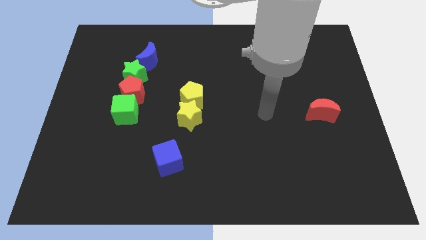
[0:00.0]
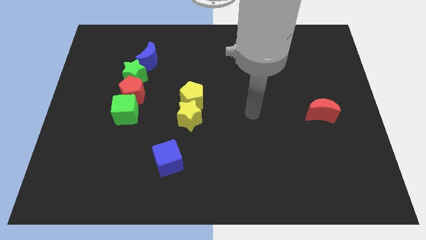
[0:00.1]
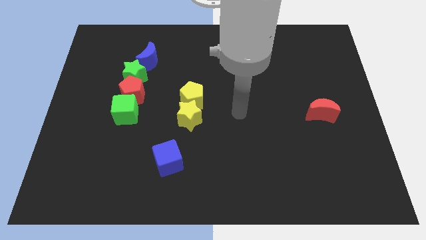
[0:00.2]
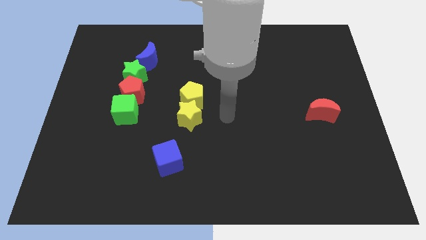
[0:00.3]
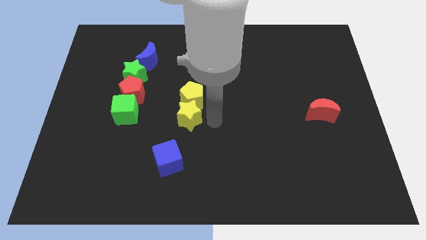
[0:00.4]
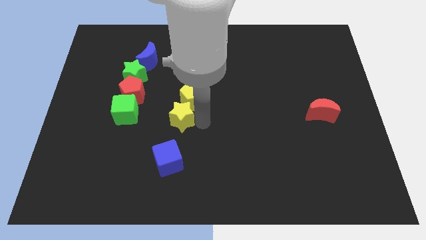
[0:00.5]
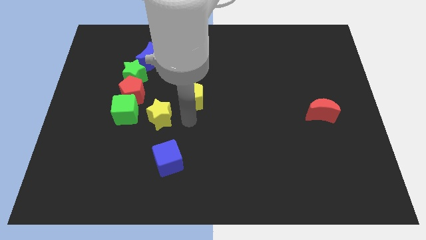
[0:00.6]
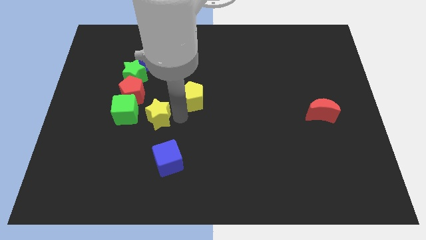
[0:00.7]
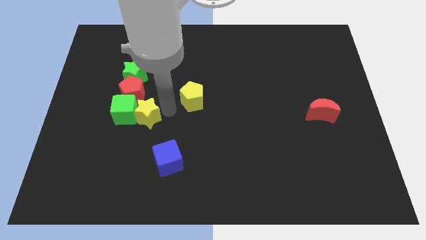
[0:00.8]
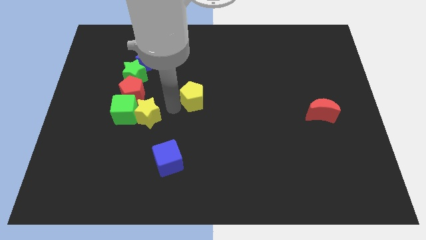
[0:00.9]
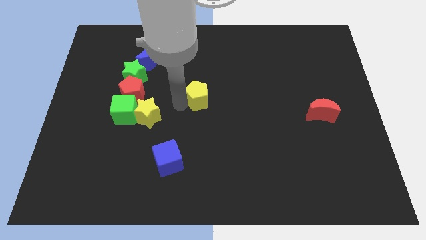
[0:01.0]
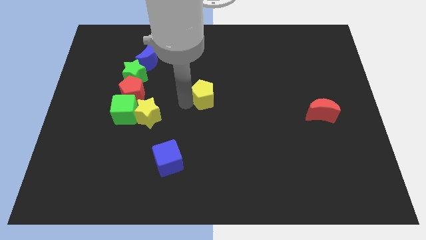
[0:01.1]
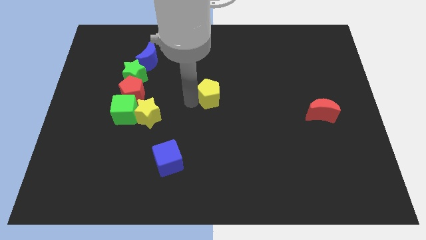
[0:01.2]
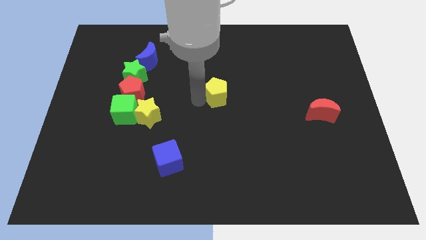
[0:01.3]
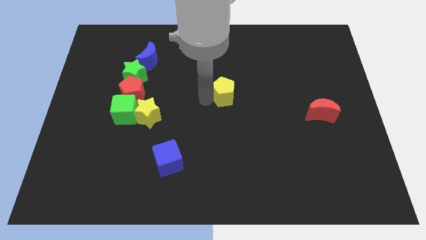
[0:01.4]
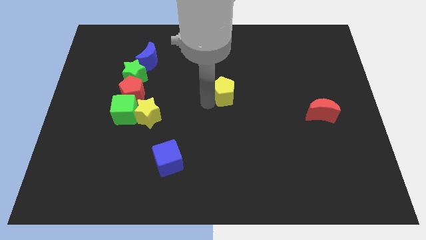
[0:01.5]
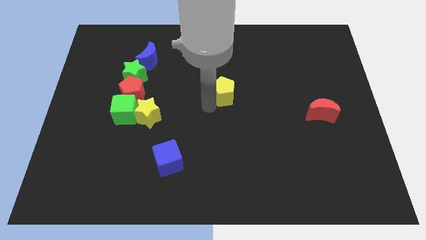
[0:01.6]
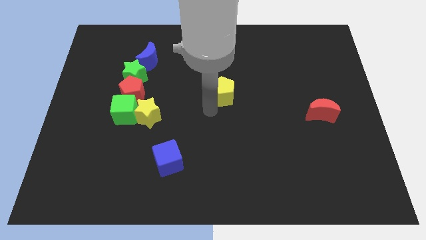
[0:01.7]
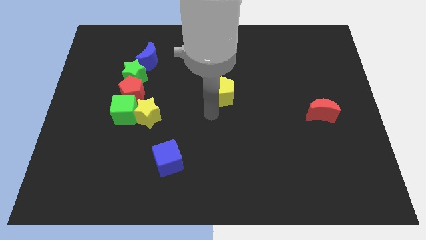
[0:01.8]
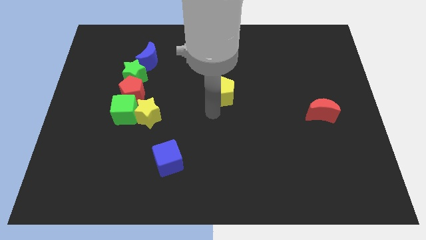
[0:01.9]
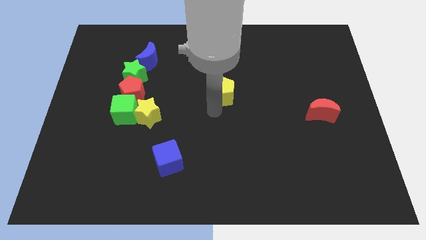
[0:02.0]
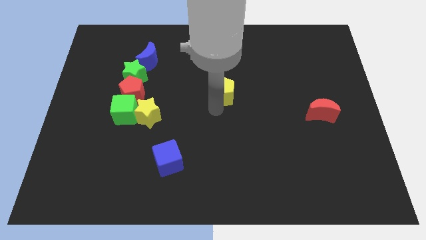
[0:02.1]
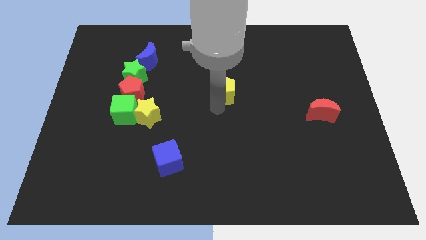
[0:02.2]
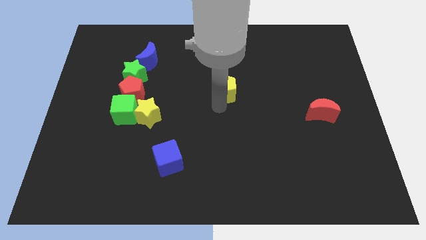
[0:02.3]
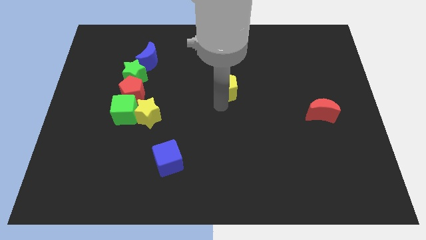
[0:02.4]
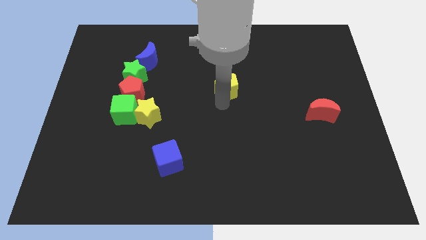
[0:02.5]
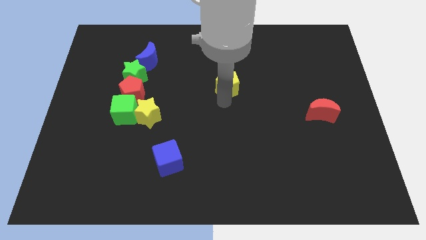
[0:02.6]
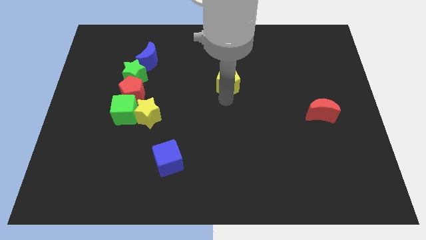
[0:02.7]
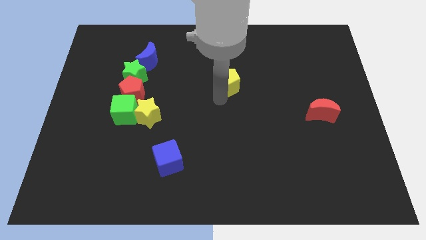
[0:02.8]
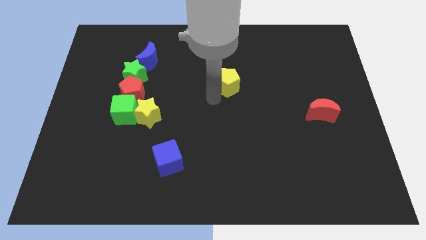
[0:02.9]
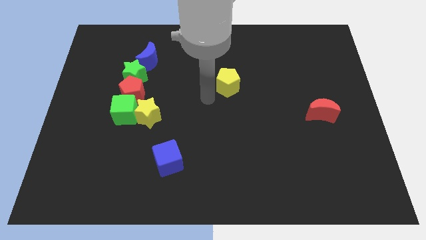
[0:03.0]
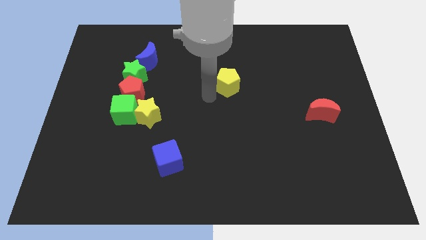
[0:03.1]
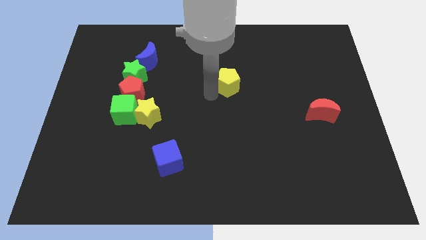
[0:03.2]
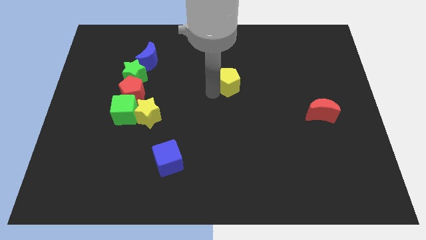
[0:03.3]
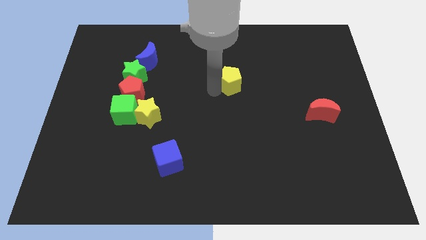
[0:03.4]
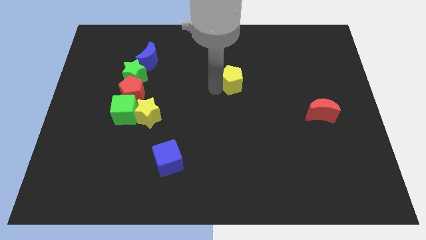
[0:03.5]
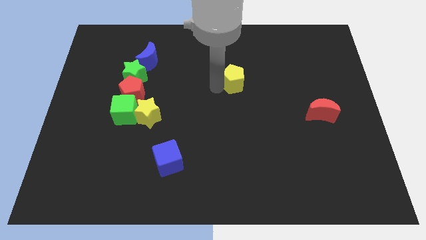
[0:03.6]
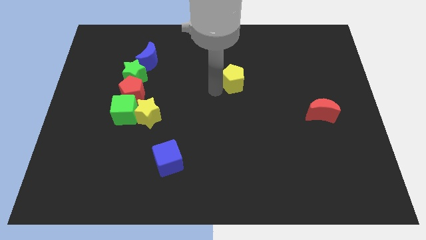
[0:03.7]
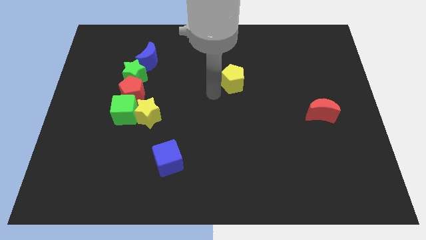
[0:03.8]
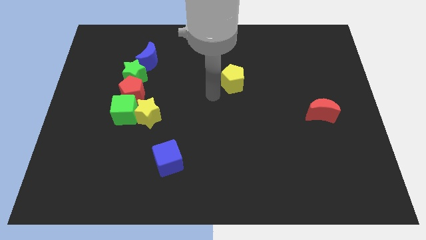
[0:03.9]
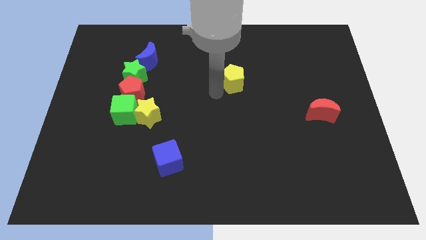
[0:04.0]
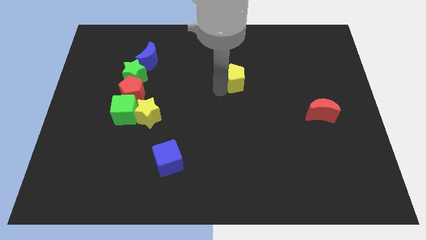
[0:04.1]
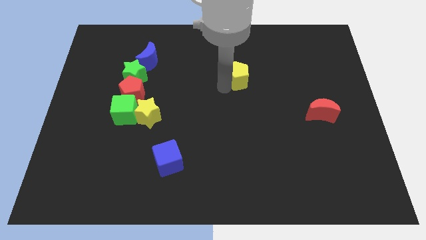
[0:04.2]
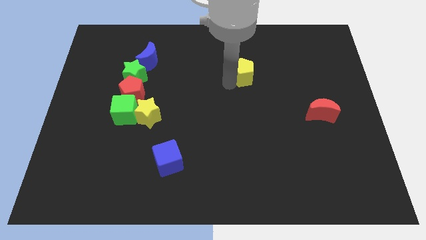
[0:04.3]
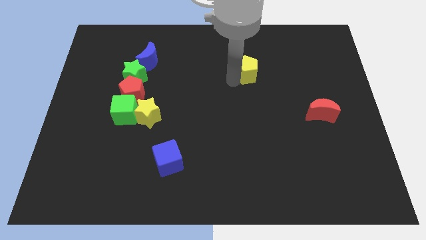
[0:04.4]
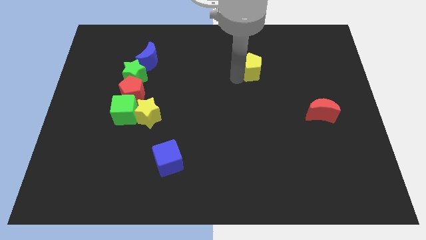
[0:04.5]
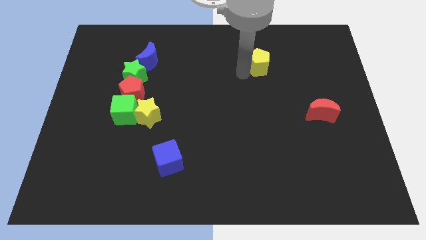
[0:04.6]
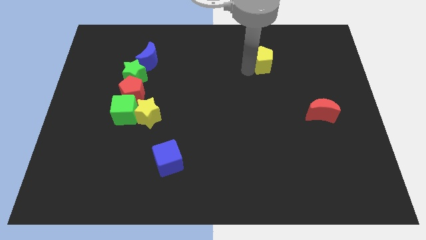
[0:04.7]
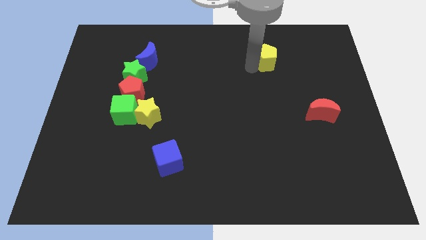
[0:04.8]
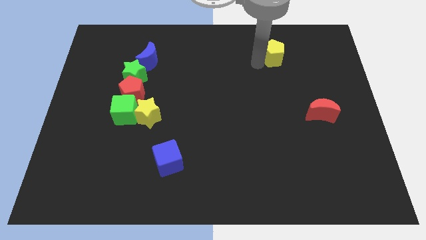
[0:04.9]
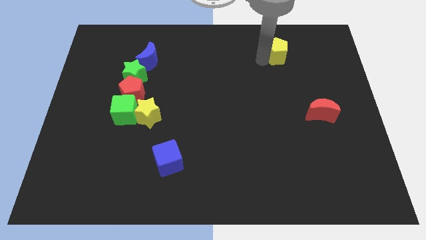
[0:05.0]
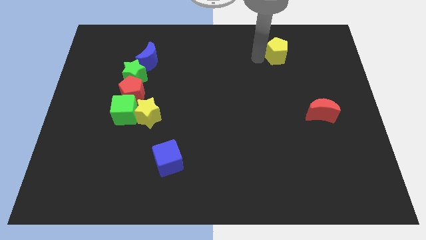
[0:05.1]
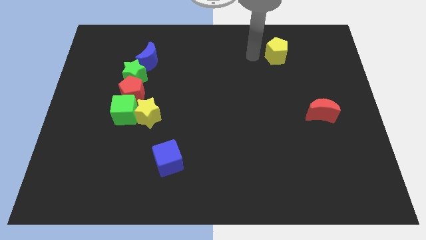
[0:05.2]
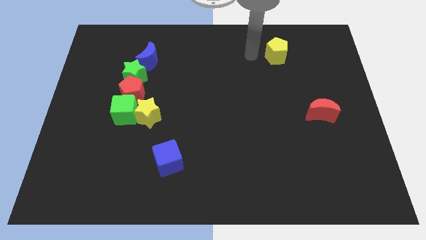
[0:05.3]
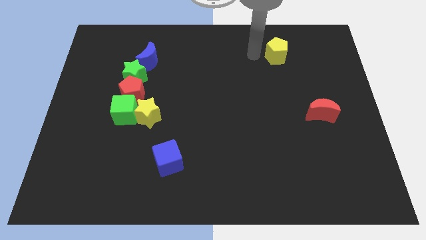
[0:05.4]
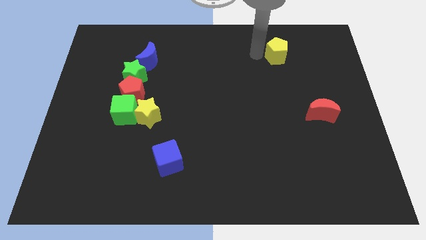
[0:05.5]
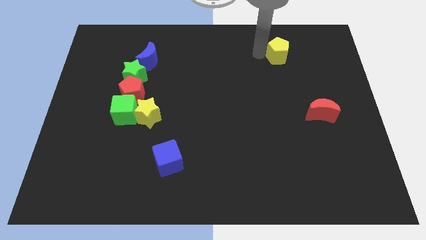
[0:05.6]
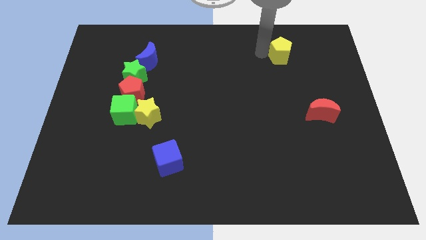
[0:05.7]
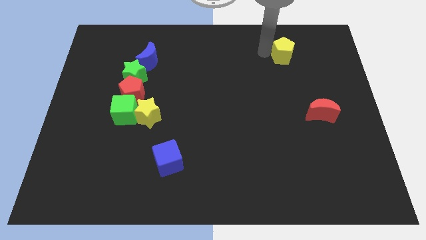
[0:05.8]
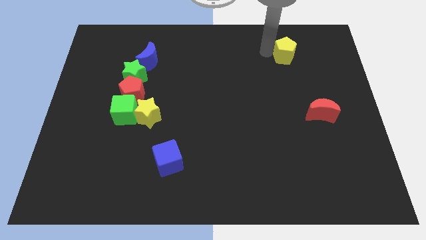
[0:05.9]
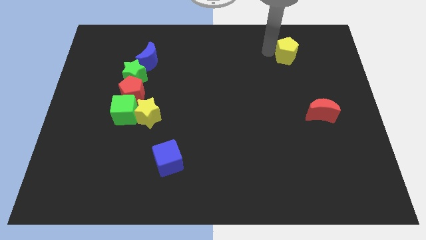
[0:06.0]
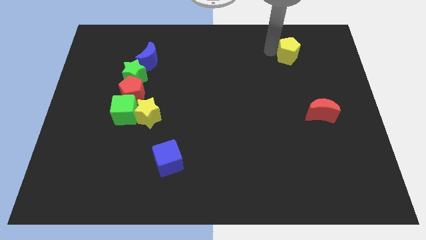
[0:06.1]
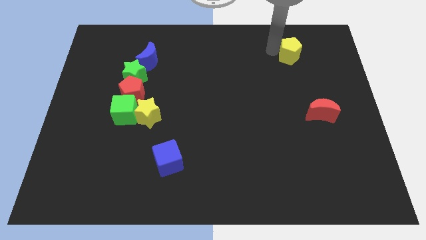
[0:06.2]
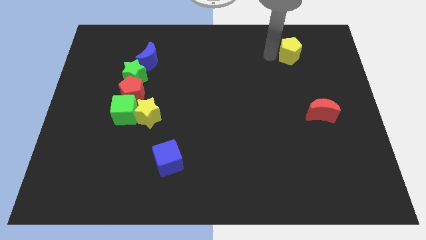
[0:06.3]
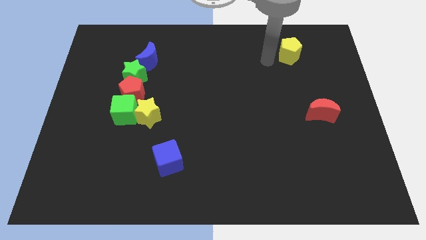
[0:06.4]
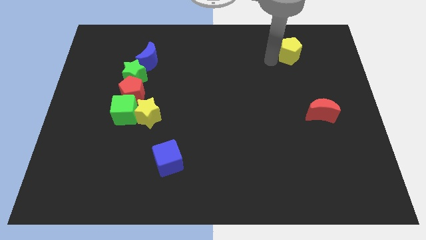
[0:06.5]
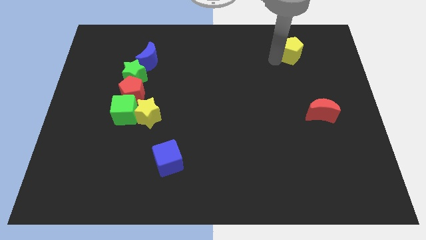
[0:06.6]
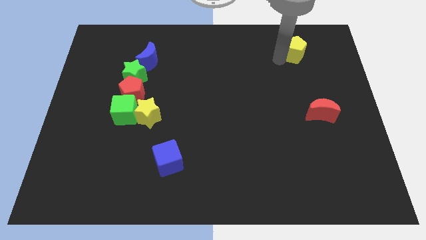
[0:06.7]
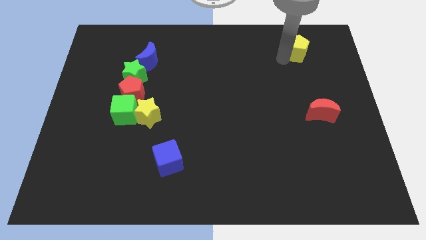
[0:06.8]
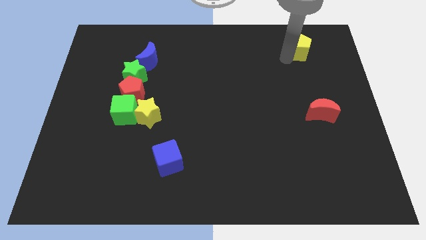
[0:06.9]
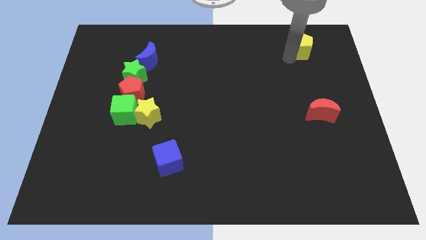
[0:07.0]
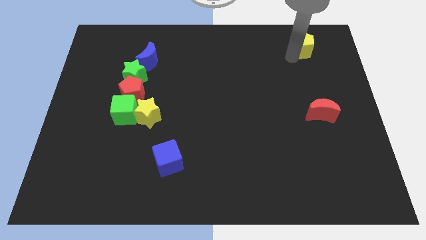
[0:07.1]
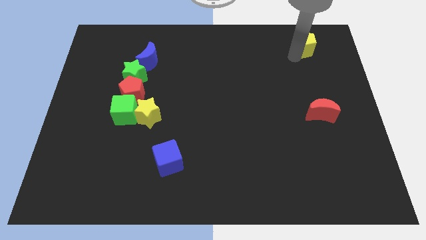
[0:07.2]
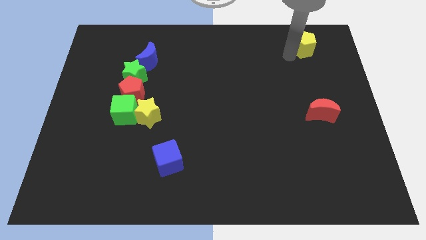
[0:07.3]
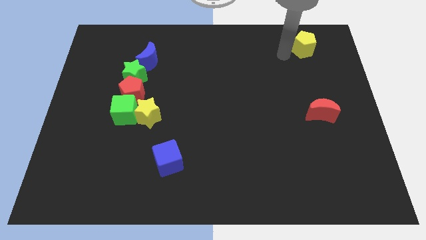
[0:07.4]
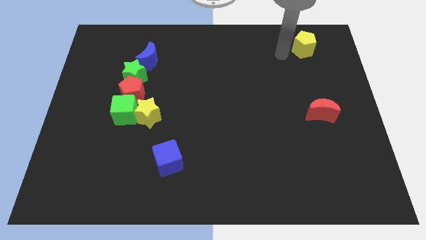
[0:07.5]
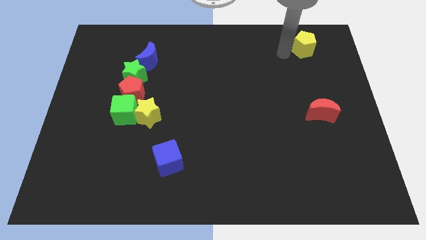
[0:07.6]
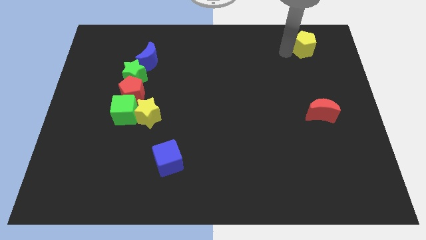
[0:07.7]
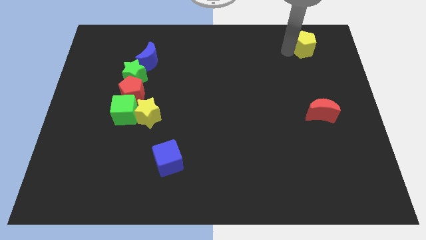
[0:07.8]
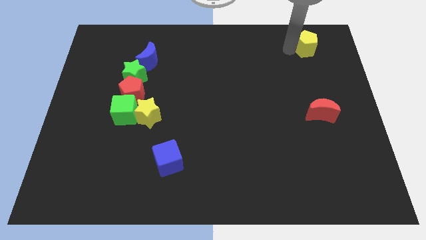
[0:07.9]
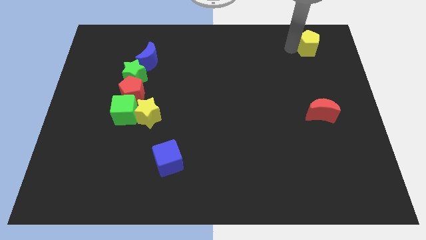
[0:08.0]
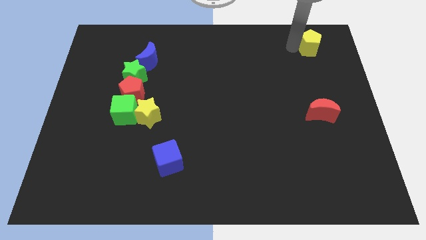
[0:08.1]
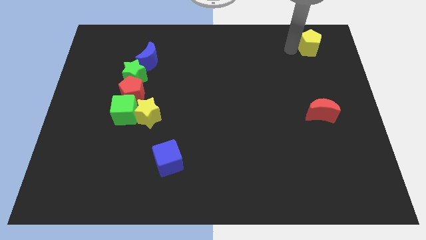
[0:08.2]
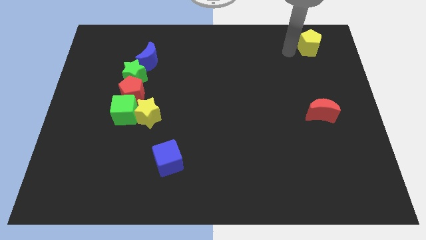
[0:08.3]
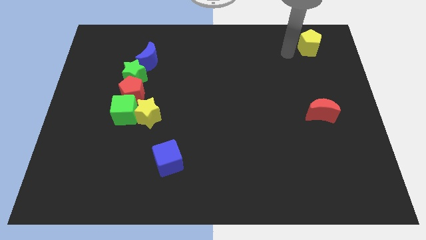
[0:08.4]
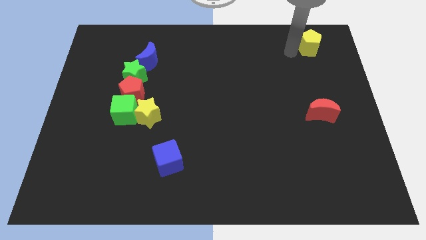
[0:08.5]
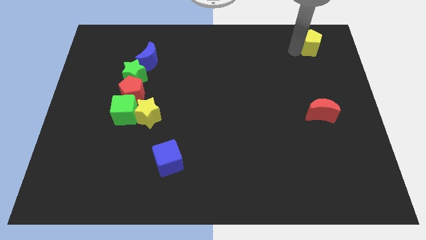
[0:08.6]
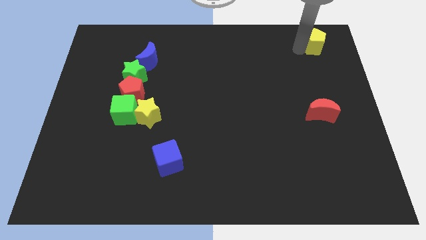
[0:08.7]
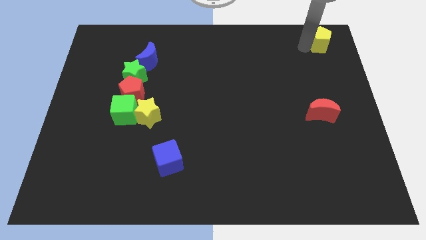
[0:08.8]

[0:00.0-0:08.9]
put the yellow pentagon to the top right of the board
